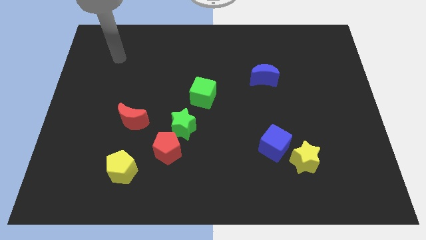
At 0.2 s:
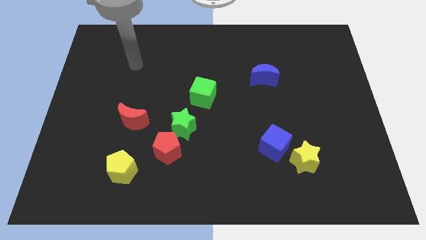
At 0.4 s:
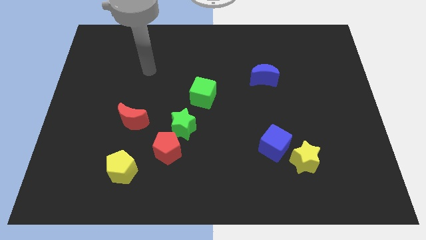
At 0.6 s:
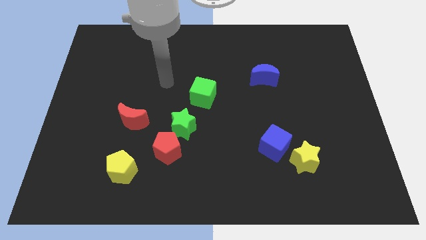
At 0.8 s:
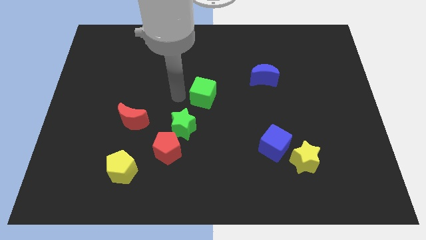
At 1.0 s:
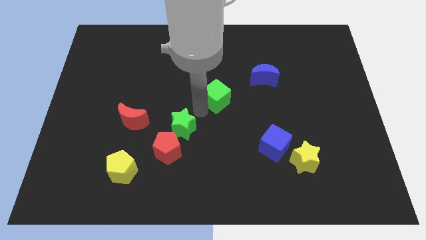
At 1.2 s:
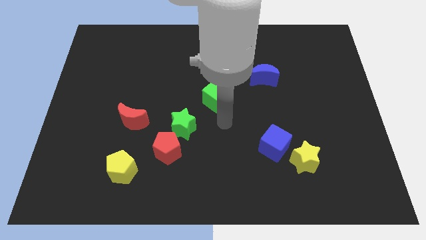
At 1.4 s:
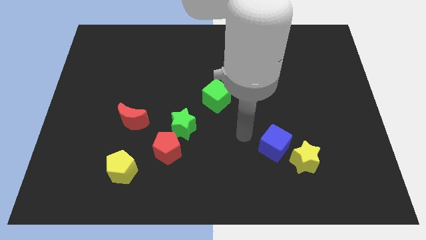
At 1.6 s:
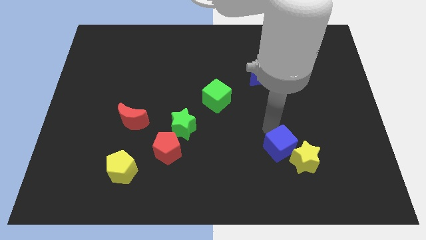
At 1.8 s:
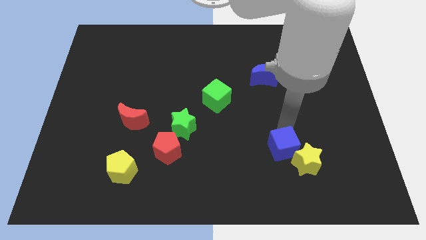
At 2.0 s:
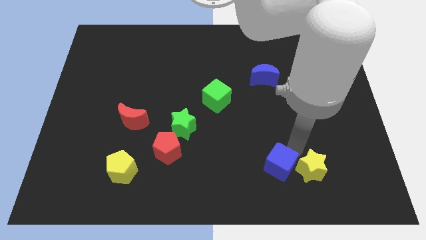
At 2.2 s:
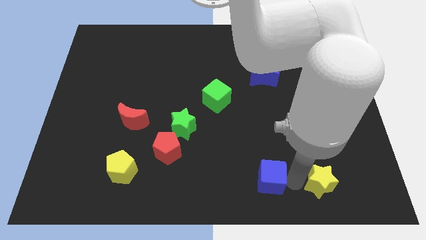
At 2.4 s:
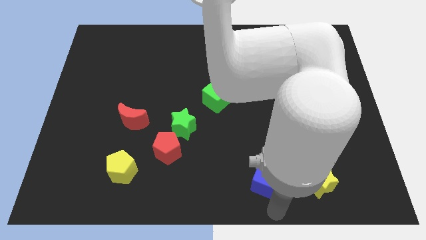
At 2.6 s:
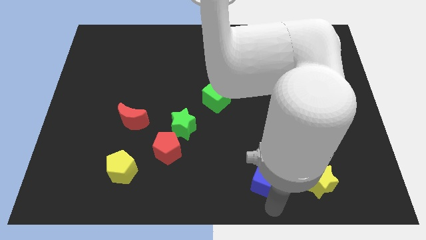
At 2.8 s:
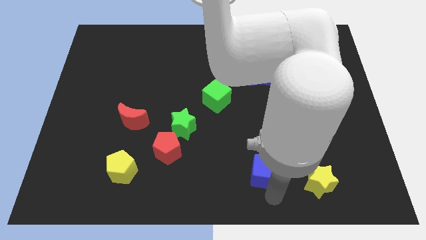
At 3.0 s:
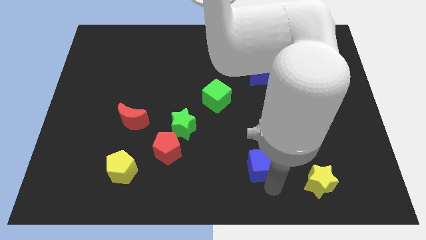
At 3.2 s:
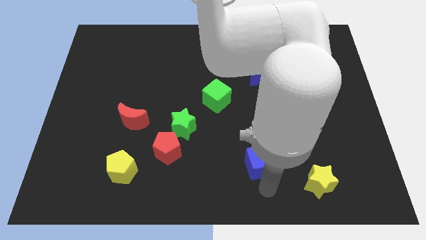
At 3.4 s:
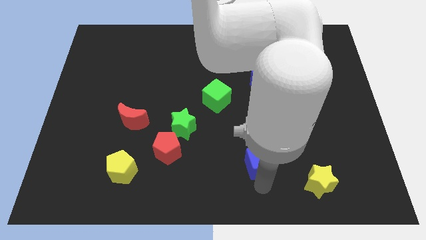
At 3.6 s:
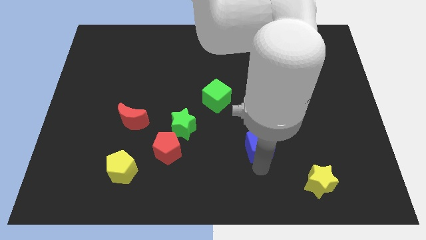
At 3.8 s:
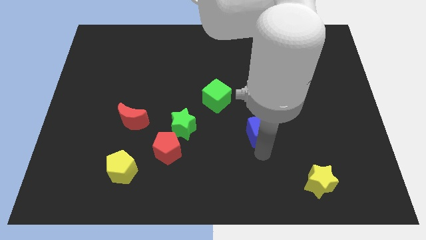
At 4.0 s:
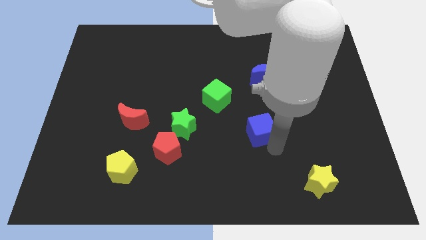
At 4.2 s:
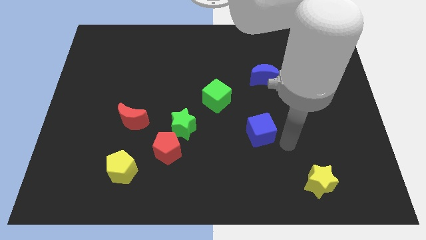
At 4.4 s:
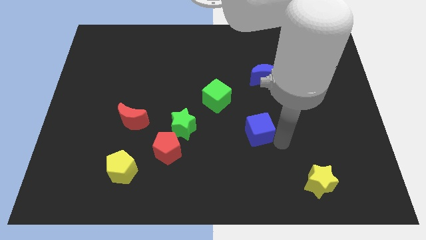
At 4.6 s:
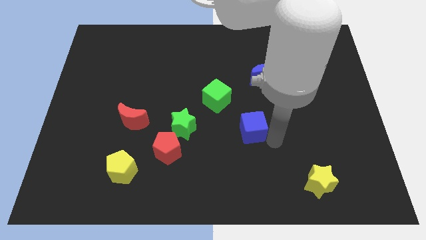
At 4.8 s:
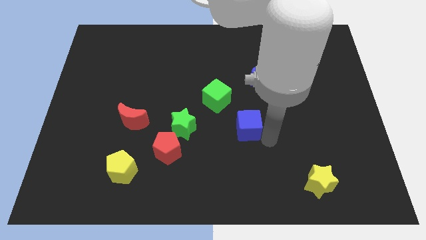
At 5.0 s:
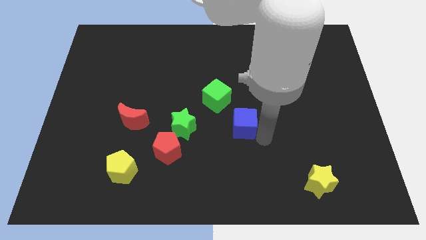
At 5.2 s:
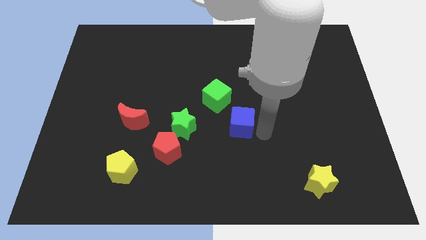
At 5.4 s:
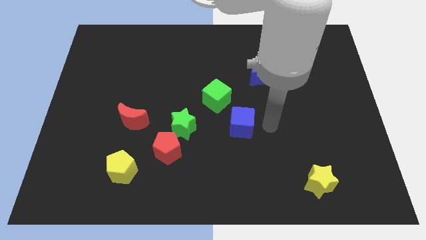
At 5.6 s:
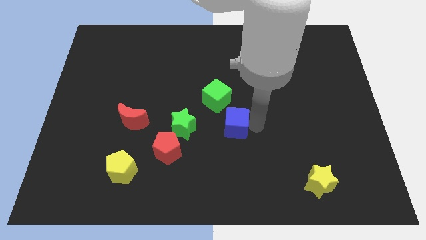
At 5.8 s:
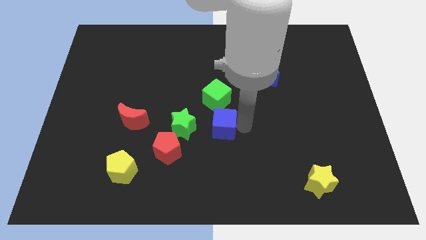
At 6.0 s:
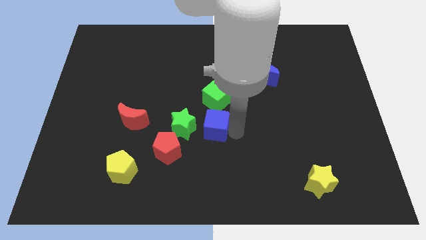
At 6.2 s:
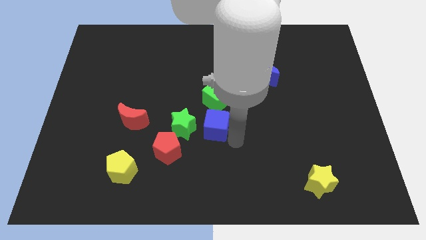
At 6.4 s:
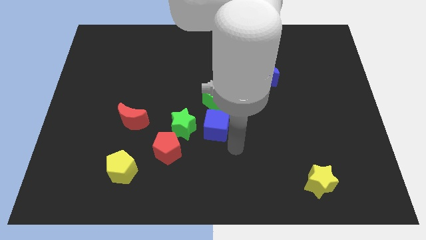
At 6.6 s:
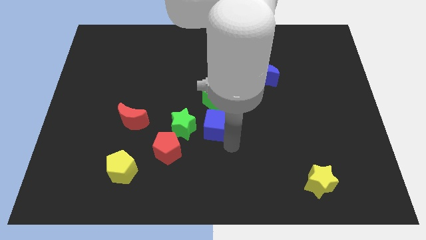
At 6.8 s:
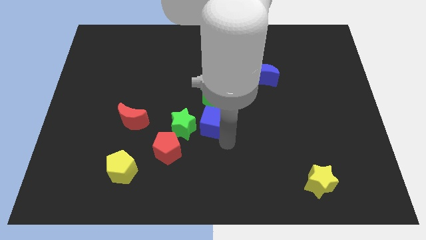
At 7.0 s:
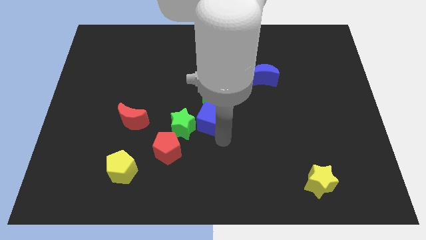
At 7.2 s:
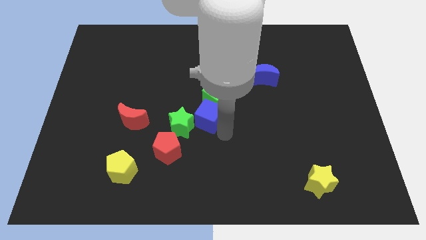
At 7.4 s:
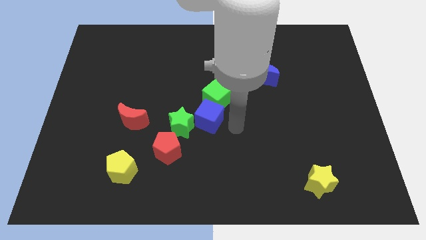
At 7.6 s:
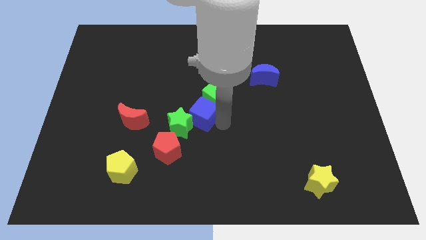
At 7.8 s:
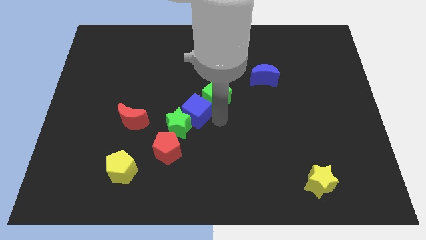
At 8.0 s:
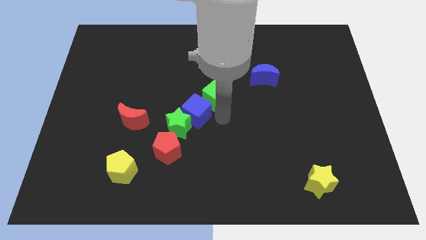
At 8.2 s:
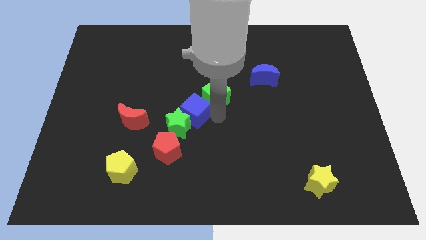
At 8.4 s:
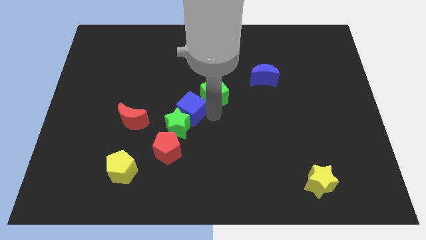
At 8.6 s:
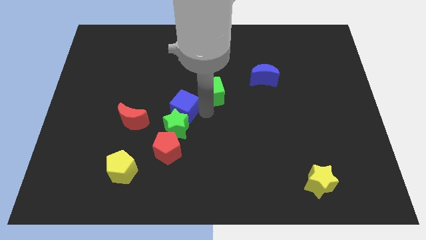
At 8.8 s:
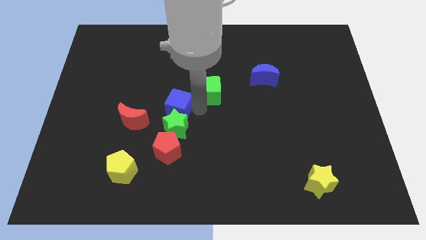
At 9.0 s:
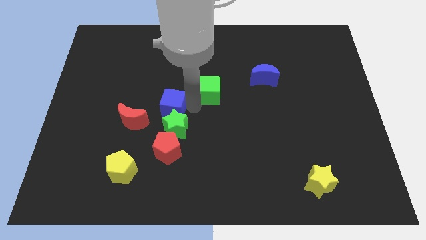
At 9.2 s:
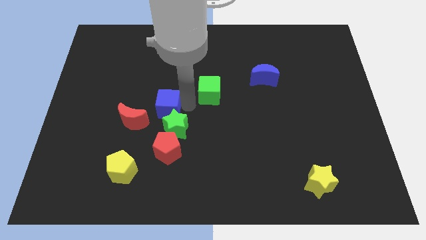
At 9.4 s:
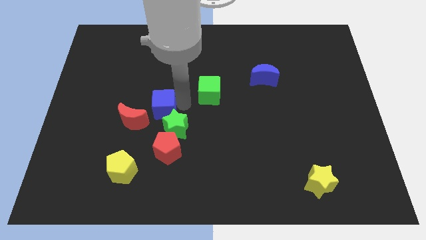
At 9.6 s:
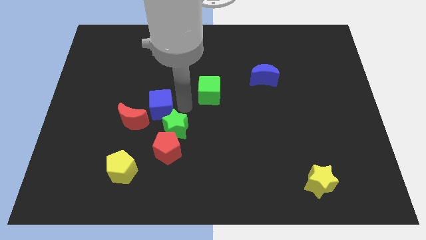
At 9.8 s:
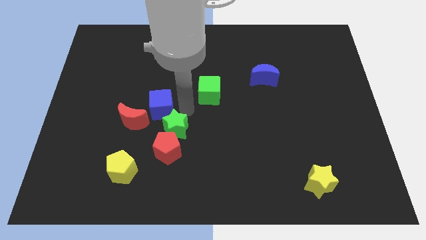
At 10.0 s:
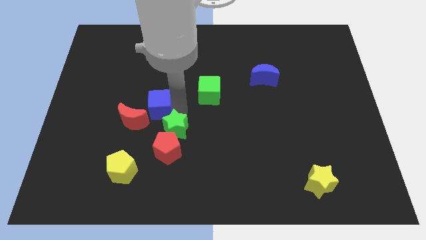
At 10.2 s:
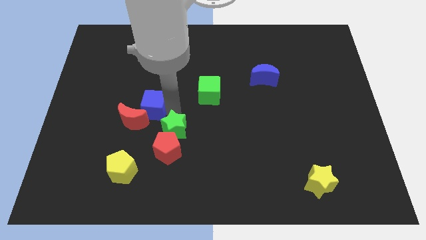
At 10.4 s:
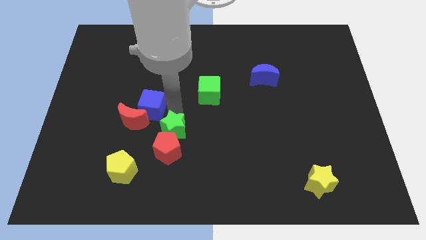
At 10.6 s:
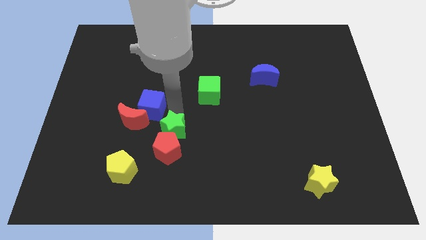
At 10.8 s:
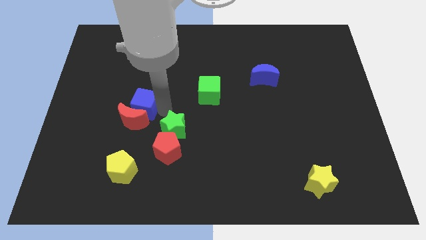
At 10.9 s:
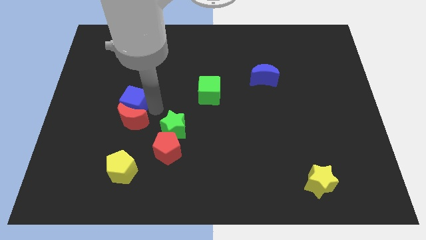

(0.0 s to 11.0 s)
slide the blue cube to the top left of the red moon
